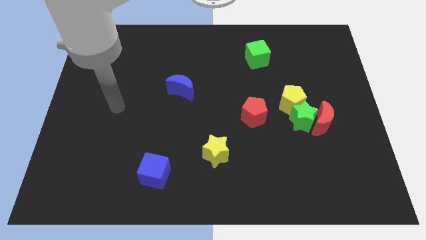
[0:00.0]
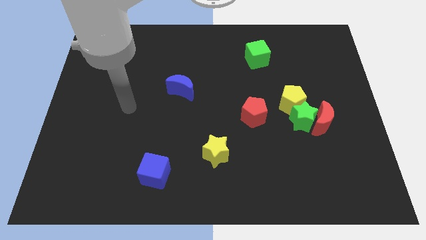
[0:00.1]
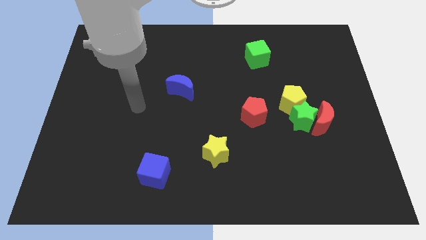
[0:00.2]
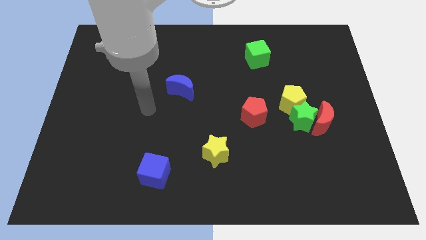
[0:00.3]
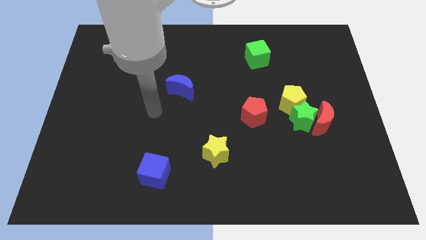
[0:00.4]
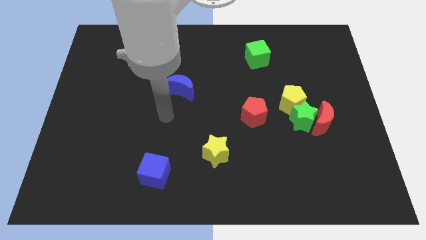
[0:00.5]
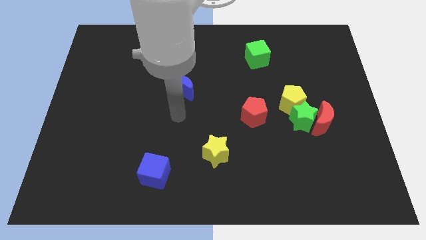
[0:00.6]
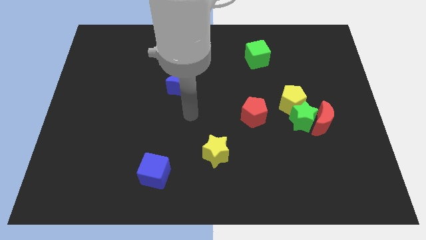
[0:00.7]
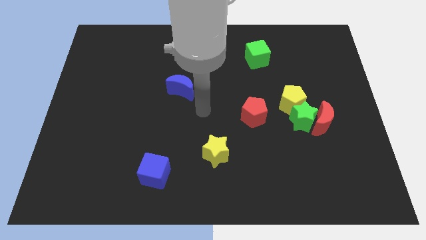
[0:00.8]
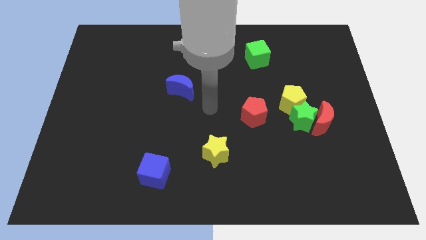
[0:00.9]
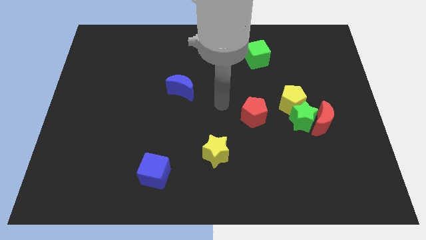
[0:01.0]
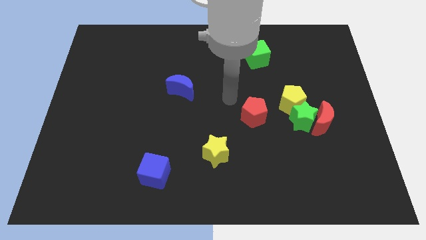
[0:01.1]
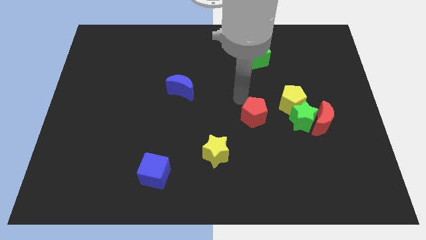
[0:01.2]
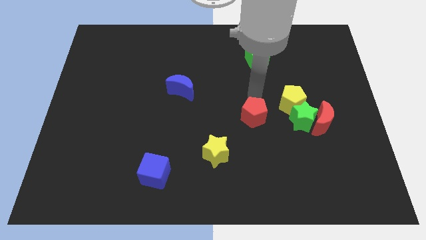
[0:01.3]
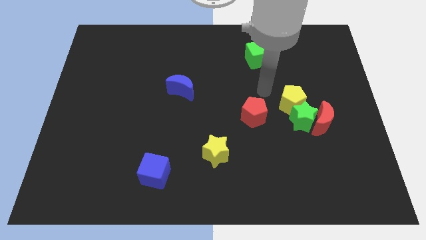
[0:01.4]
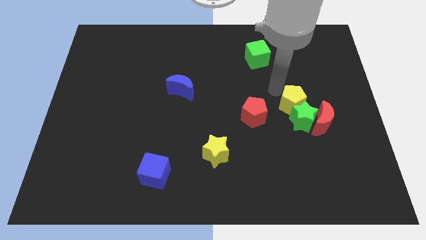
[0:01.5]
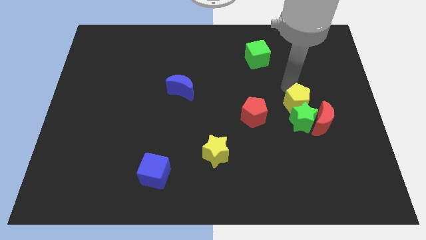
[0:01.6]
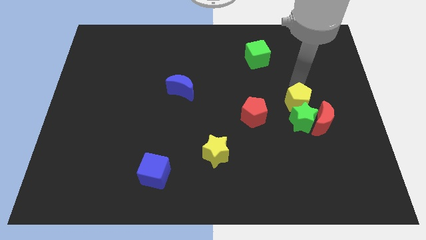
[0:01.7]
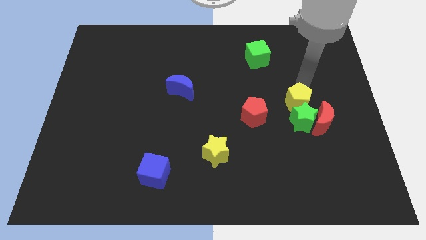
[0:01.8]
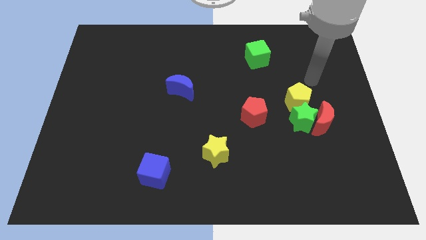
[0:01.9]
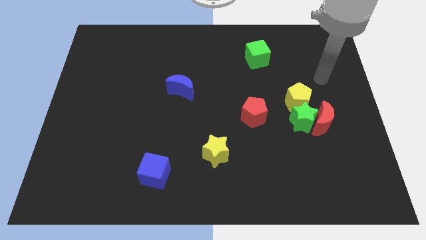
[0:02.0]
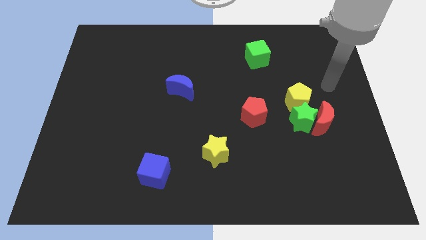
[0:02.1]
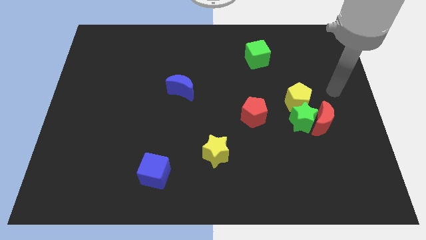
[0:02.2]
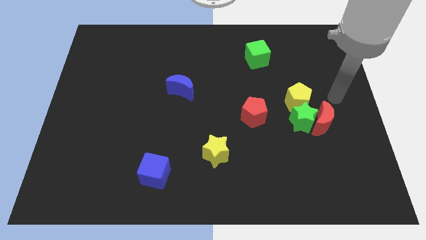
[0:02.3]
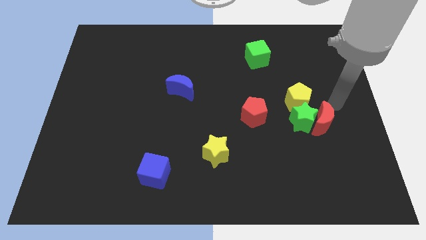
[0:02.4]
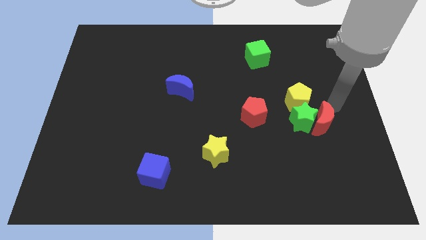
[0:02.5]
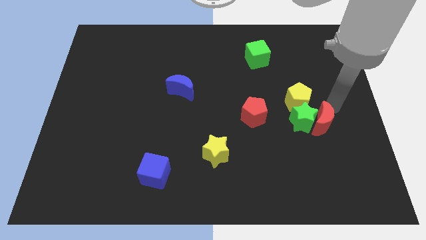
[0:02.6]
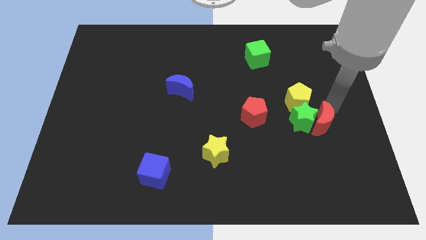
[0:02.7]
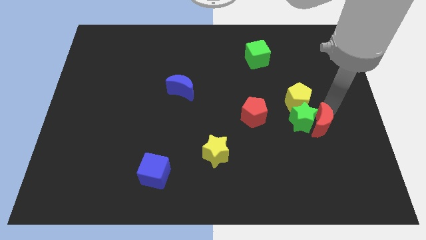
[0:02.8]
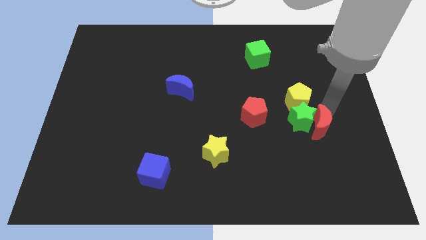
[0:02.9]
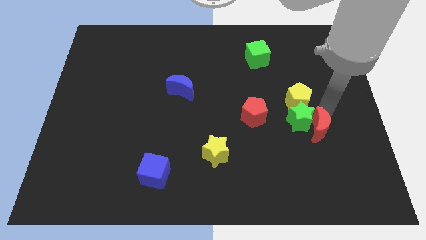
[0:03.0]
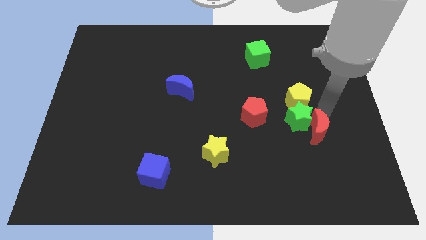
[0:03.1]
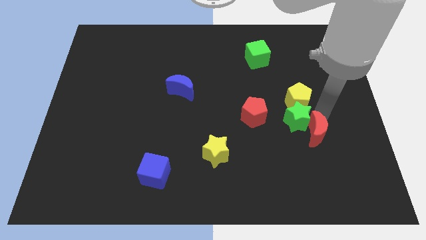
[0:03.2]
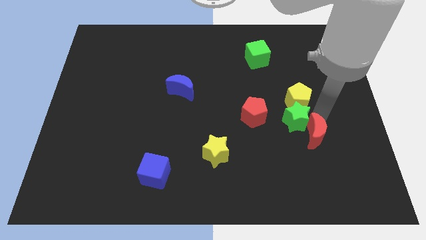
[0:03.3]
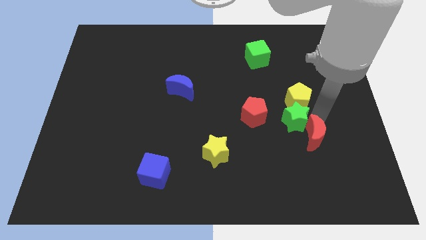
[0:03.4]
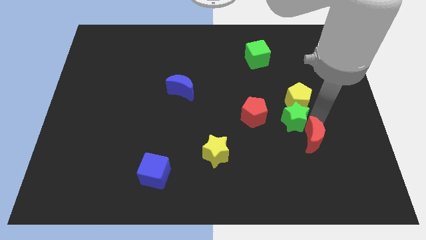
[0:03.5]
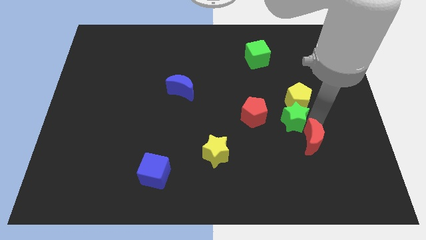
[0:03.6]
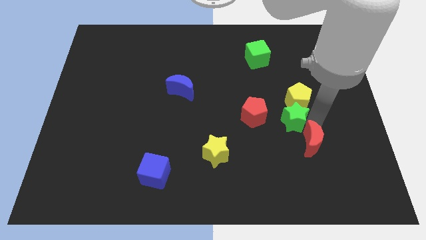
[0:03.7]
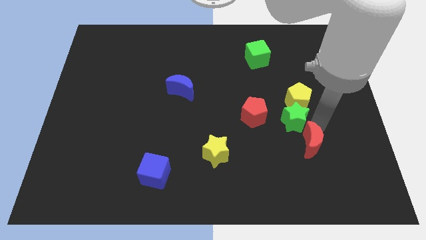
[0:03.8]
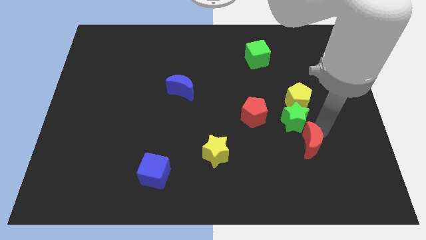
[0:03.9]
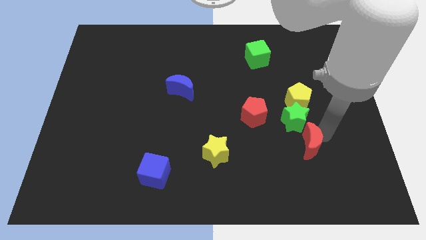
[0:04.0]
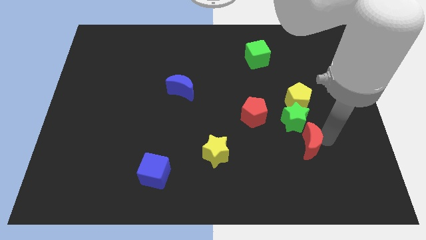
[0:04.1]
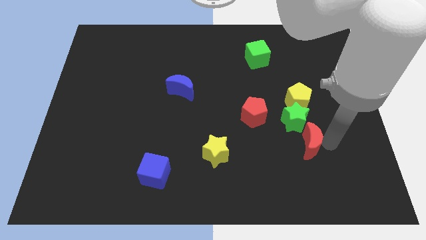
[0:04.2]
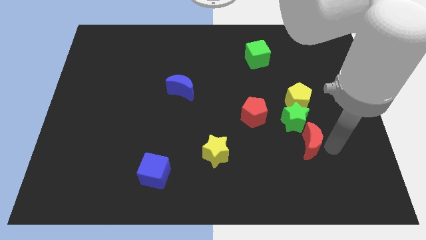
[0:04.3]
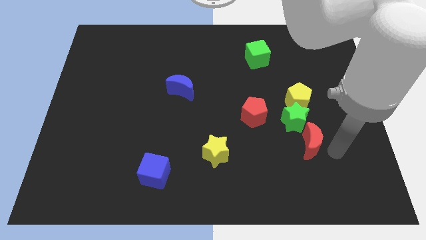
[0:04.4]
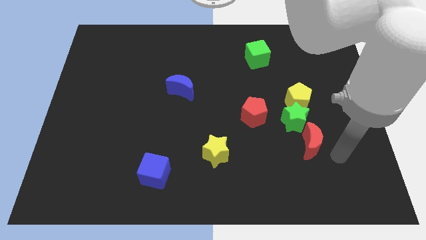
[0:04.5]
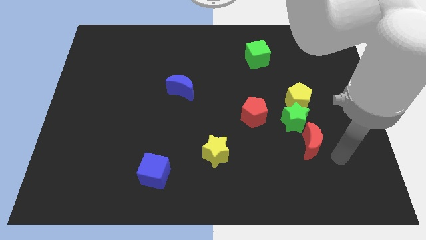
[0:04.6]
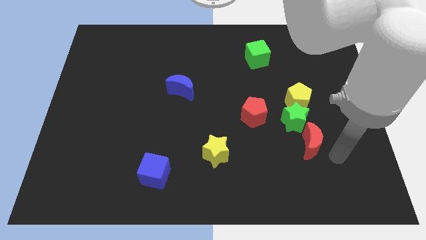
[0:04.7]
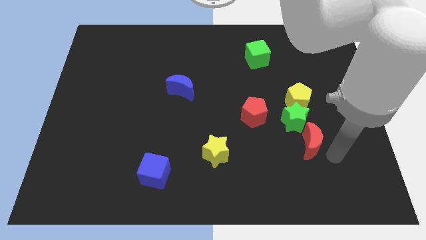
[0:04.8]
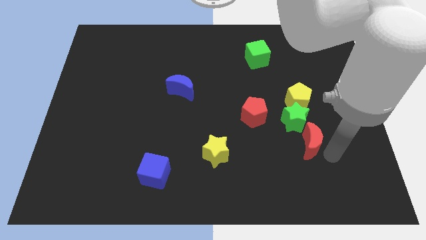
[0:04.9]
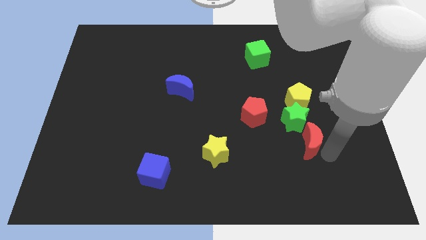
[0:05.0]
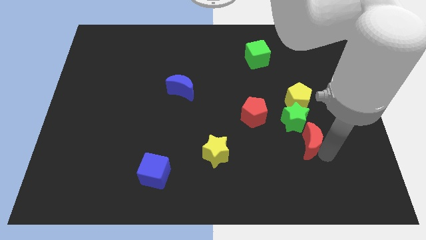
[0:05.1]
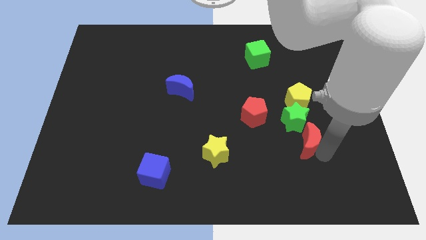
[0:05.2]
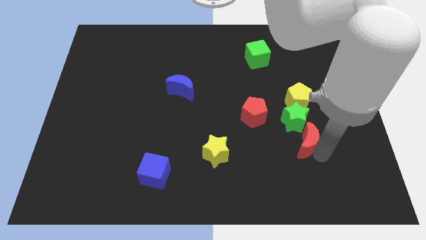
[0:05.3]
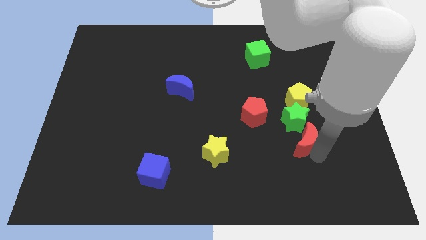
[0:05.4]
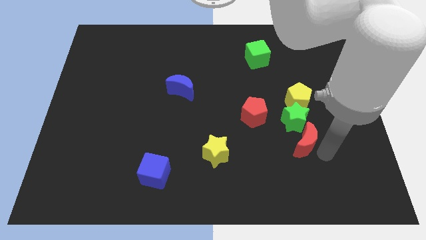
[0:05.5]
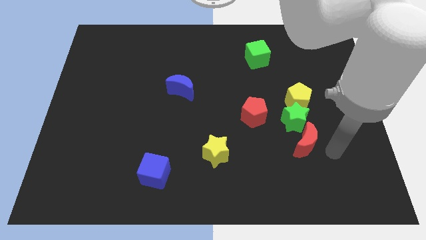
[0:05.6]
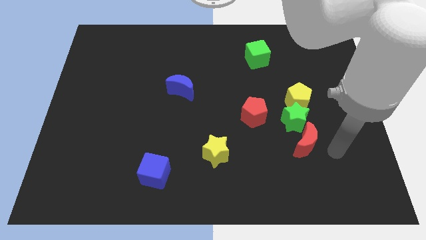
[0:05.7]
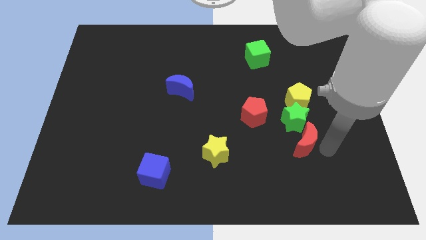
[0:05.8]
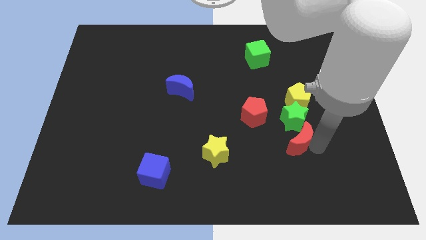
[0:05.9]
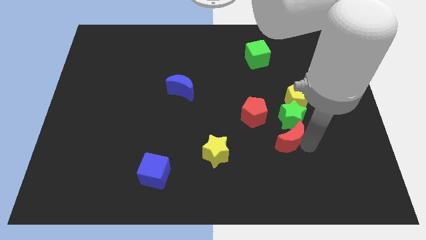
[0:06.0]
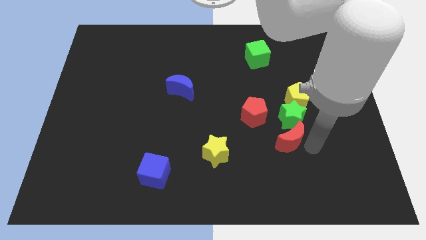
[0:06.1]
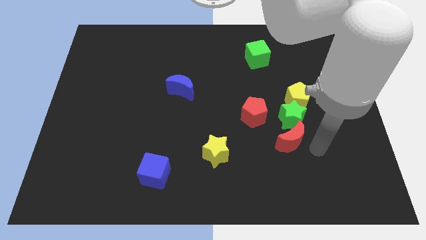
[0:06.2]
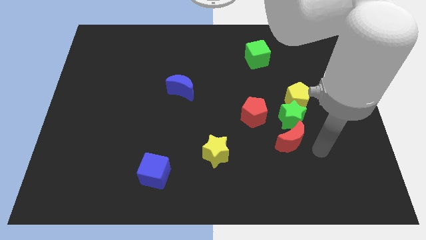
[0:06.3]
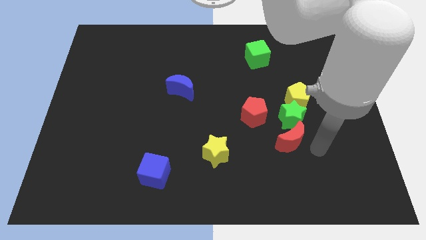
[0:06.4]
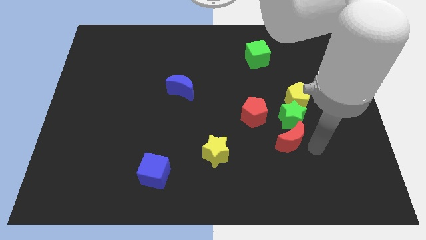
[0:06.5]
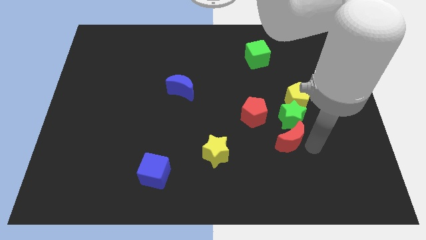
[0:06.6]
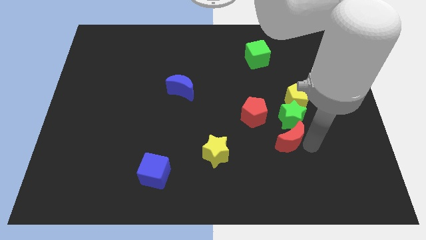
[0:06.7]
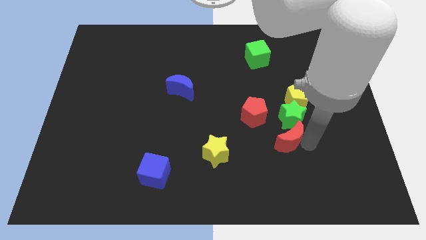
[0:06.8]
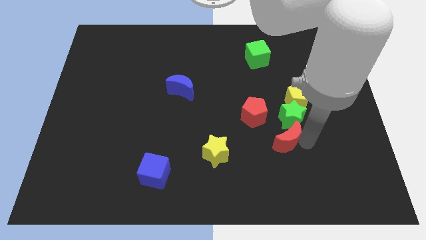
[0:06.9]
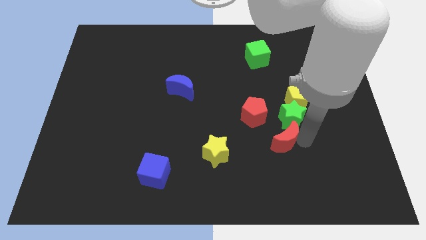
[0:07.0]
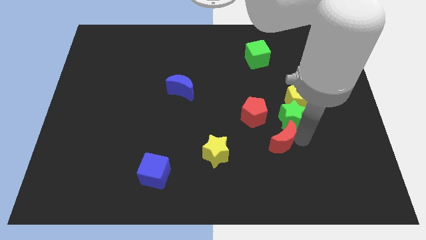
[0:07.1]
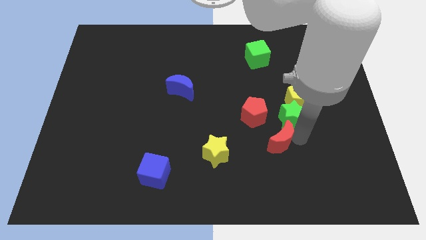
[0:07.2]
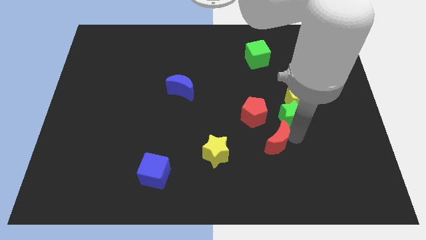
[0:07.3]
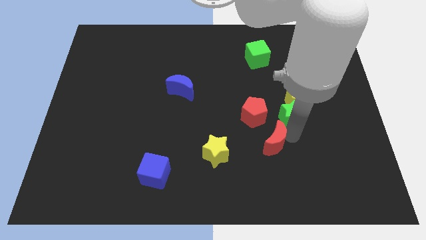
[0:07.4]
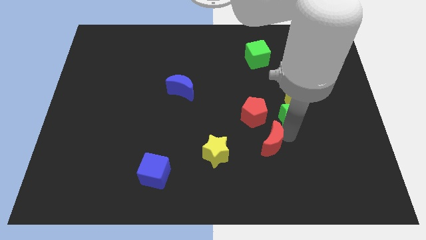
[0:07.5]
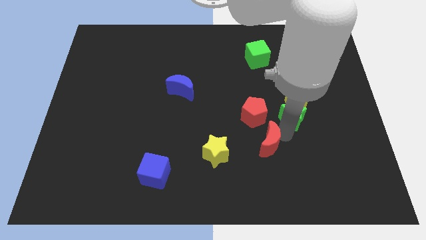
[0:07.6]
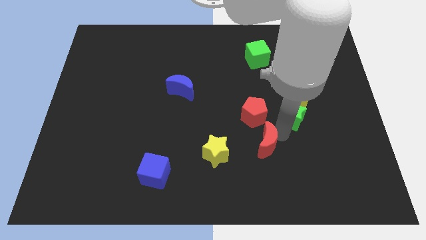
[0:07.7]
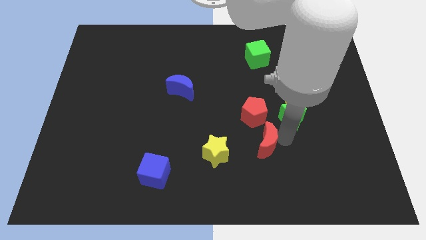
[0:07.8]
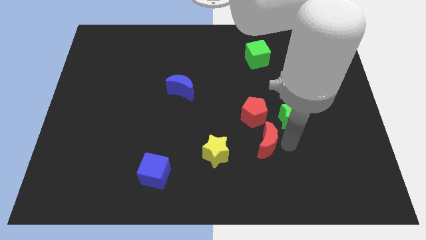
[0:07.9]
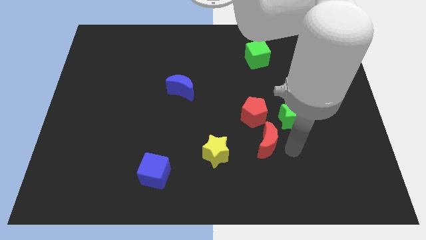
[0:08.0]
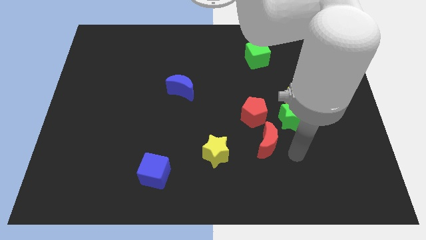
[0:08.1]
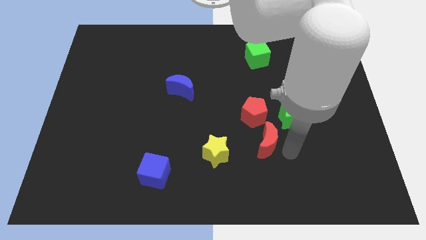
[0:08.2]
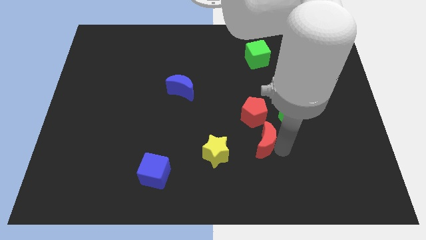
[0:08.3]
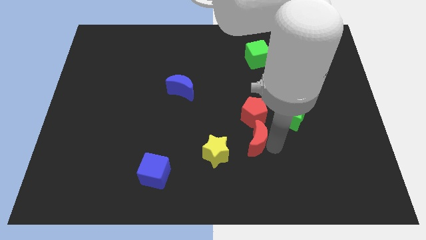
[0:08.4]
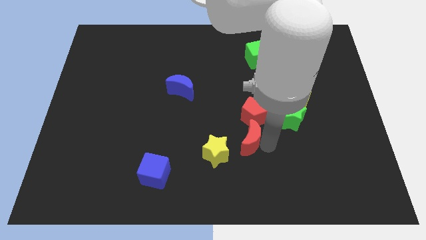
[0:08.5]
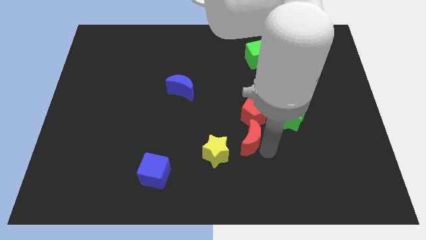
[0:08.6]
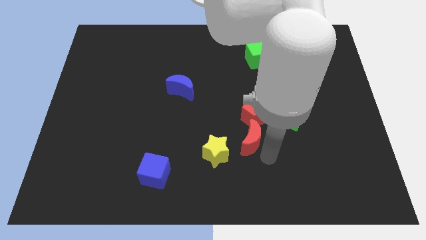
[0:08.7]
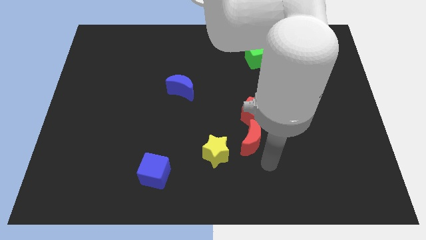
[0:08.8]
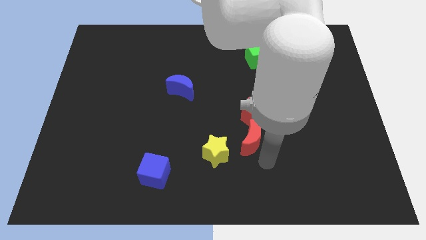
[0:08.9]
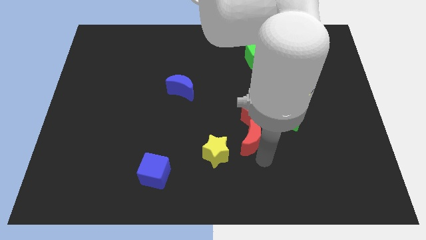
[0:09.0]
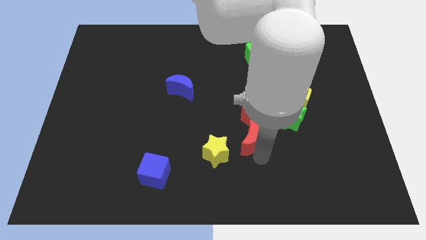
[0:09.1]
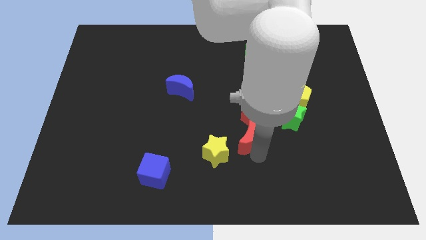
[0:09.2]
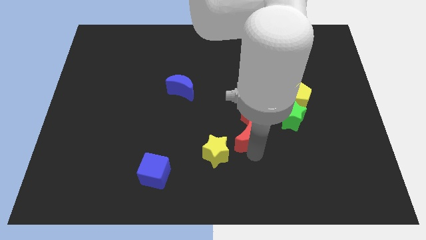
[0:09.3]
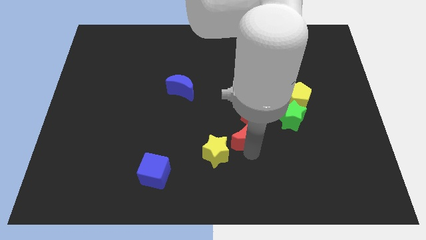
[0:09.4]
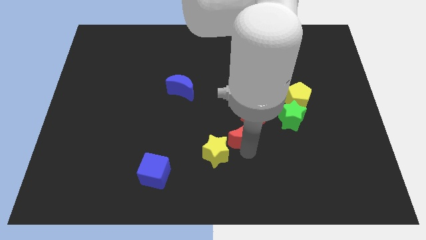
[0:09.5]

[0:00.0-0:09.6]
push the red moon to the middle
